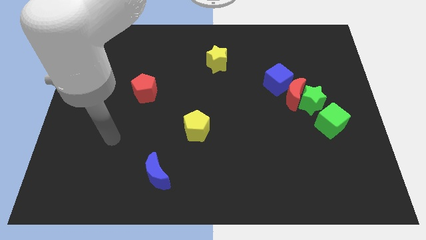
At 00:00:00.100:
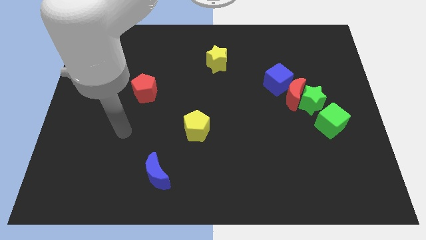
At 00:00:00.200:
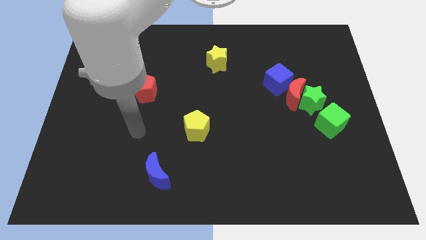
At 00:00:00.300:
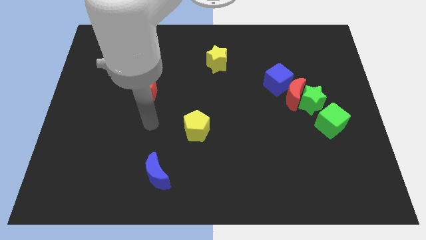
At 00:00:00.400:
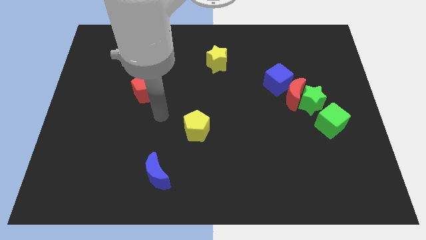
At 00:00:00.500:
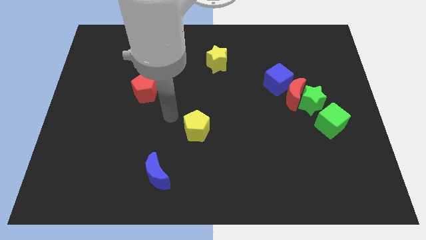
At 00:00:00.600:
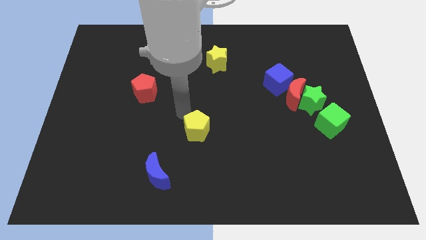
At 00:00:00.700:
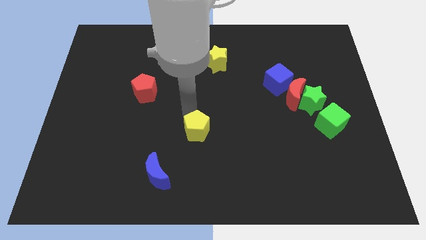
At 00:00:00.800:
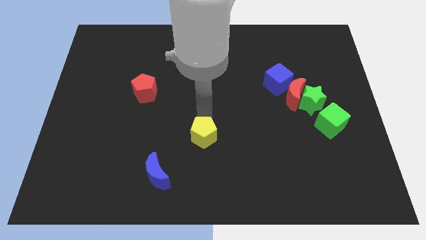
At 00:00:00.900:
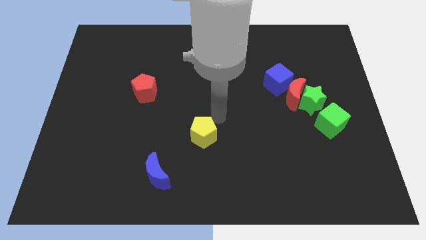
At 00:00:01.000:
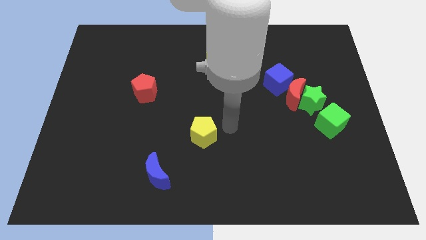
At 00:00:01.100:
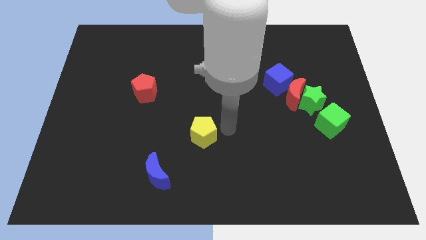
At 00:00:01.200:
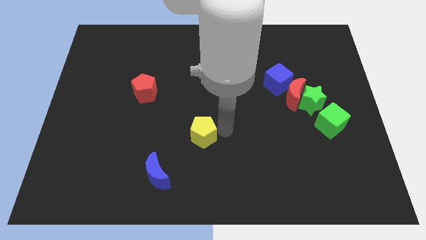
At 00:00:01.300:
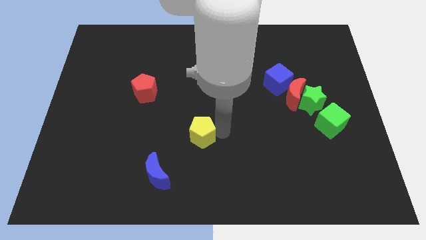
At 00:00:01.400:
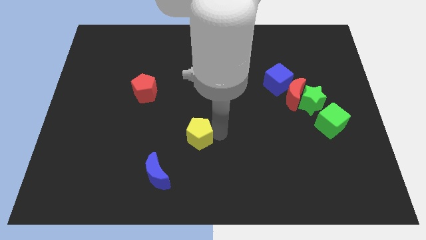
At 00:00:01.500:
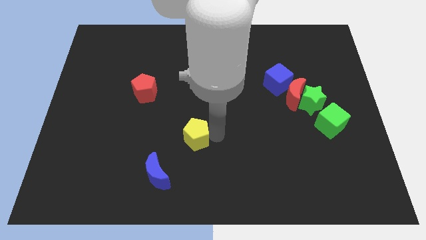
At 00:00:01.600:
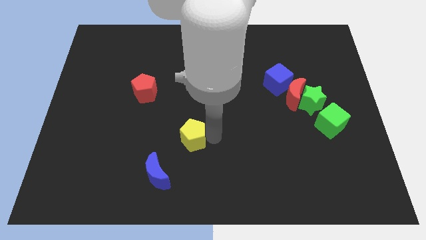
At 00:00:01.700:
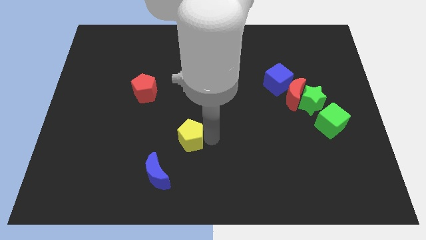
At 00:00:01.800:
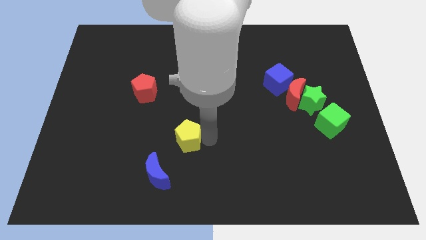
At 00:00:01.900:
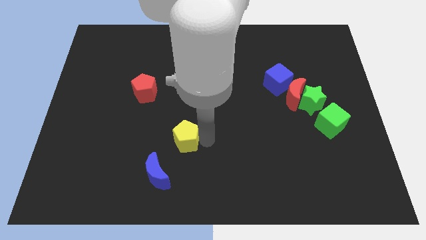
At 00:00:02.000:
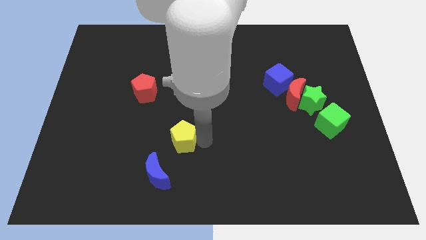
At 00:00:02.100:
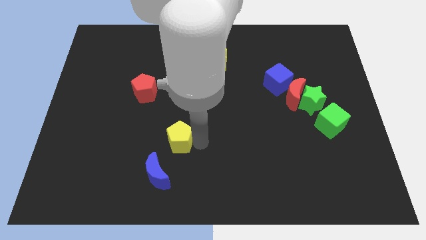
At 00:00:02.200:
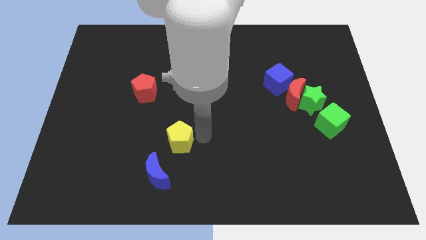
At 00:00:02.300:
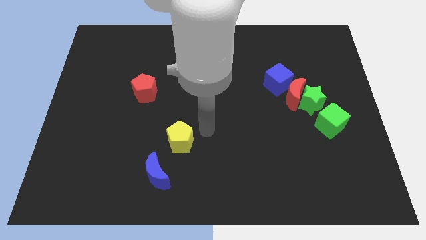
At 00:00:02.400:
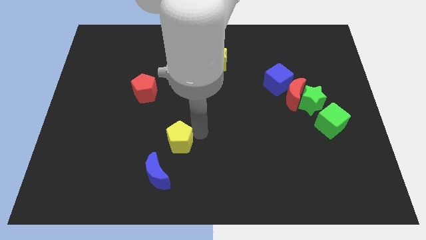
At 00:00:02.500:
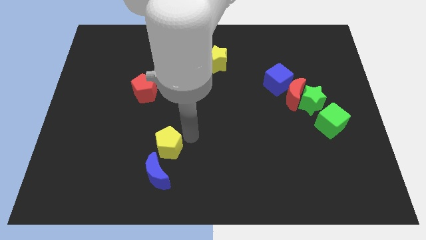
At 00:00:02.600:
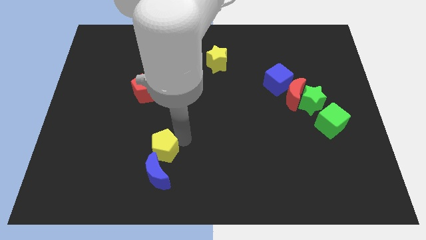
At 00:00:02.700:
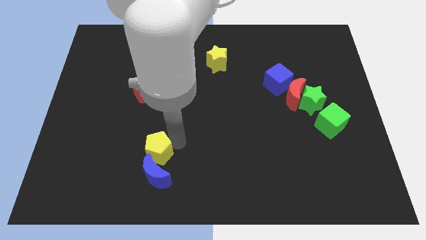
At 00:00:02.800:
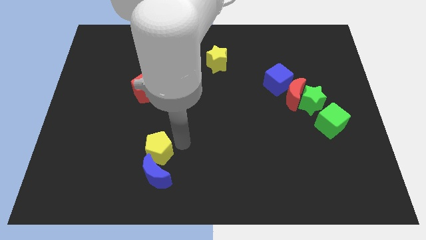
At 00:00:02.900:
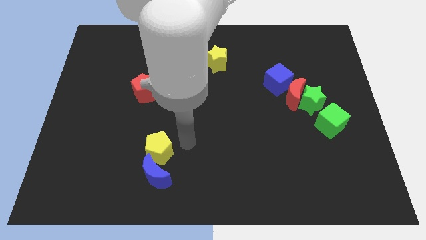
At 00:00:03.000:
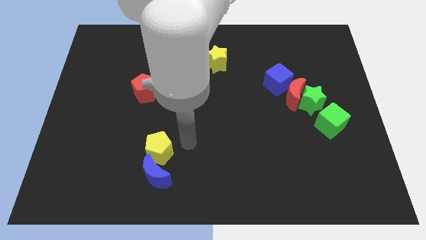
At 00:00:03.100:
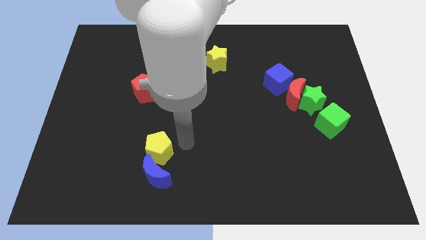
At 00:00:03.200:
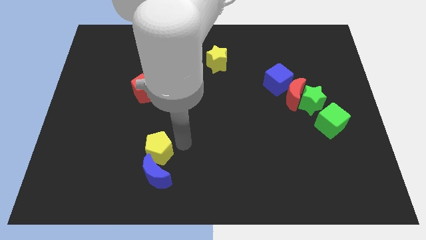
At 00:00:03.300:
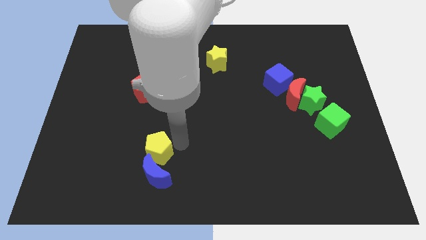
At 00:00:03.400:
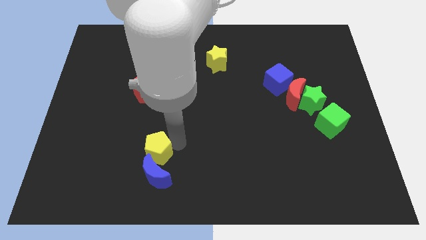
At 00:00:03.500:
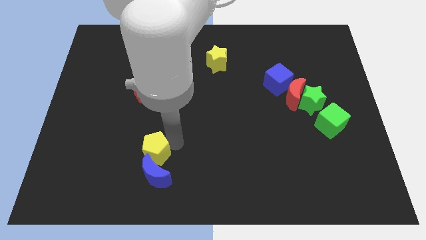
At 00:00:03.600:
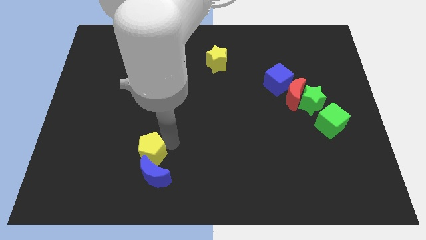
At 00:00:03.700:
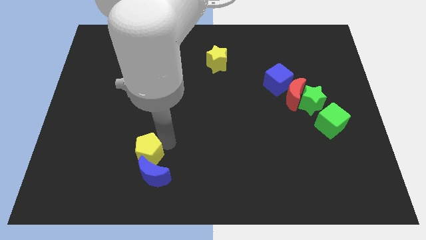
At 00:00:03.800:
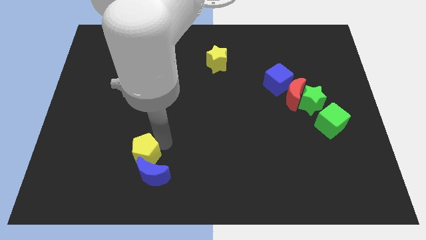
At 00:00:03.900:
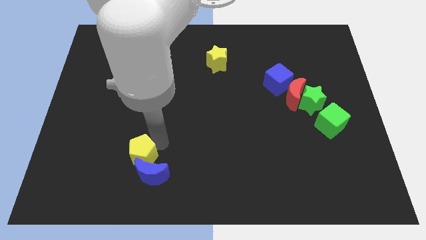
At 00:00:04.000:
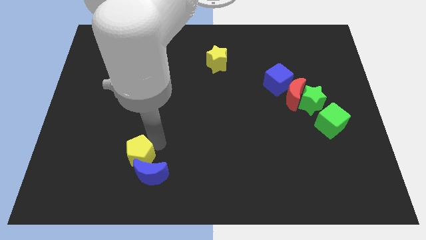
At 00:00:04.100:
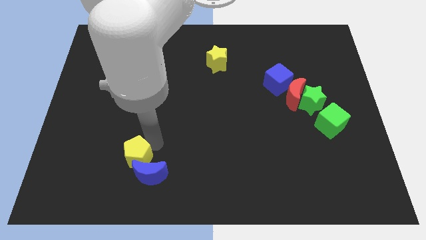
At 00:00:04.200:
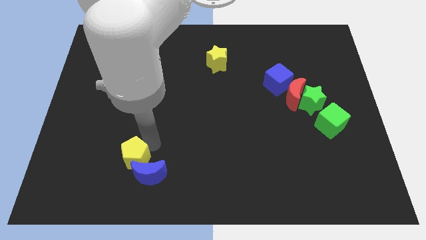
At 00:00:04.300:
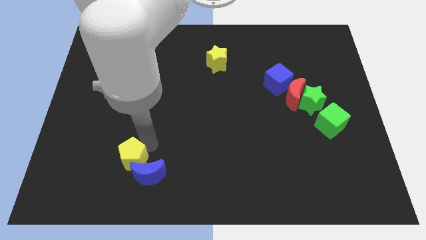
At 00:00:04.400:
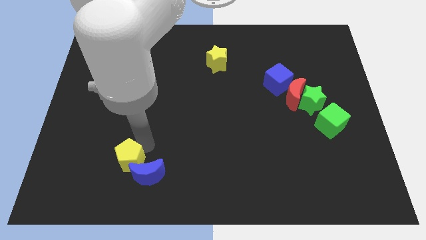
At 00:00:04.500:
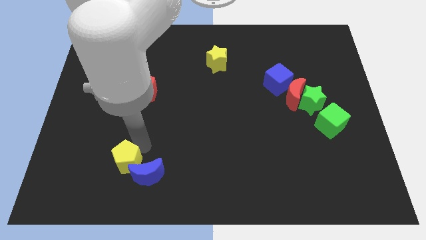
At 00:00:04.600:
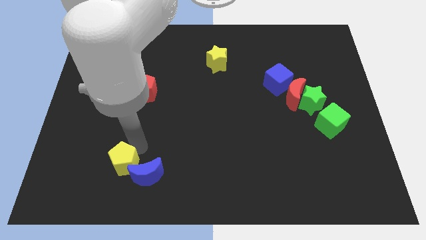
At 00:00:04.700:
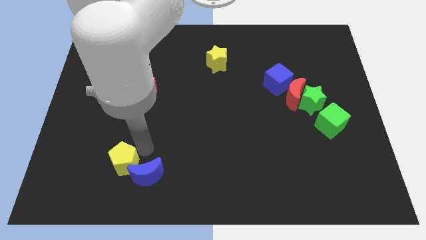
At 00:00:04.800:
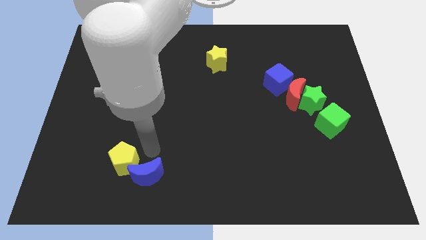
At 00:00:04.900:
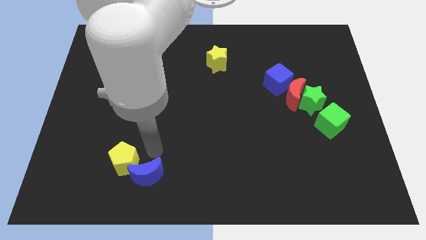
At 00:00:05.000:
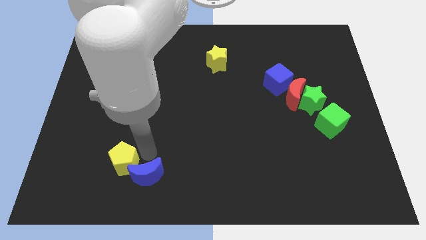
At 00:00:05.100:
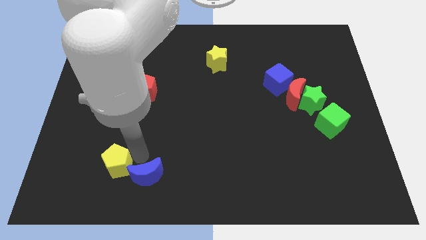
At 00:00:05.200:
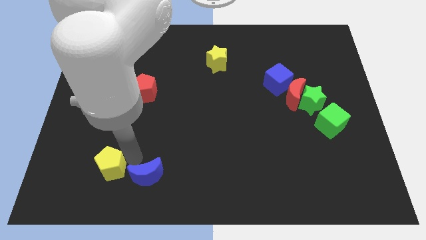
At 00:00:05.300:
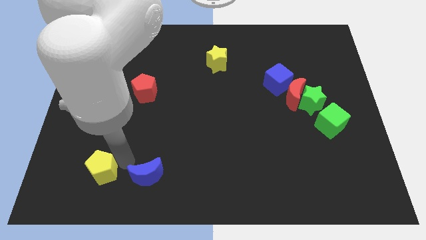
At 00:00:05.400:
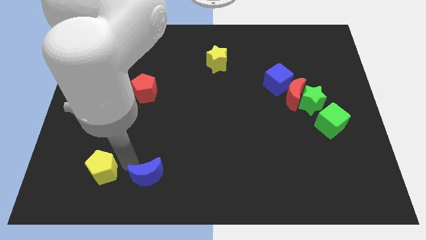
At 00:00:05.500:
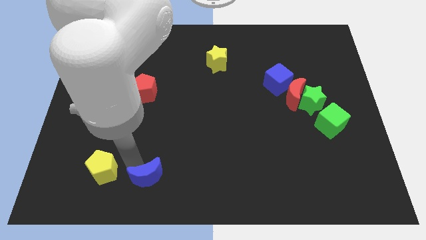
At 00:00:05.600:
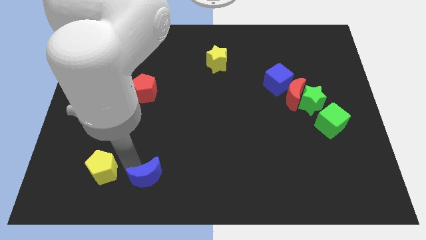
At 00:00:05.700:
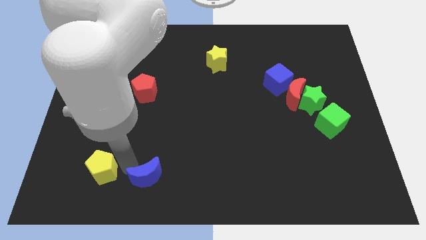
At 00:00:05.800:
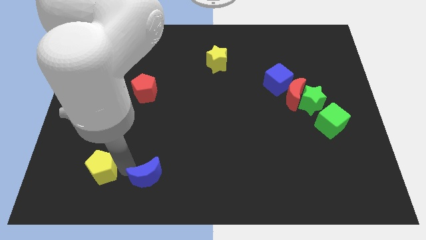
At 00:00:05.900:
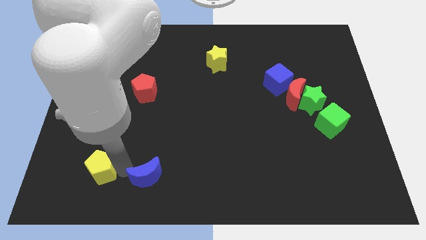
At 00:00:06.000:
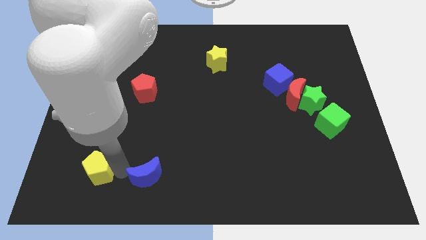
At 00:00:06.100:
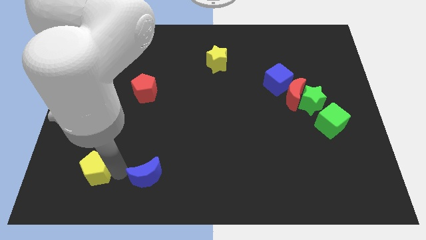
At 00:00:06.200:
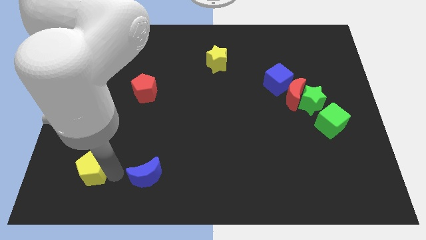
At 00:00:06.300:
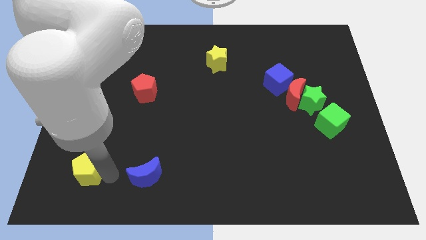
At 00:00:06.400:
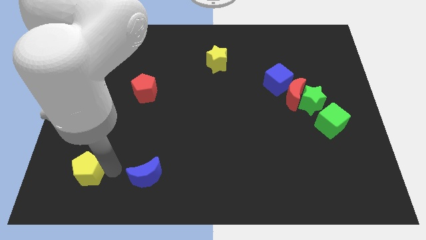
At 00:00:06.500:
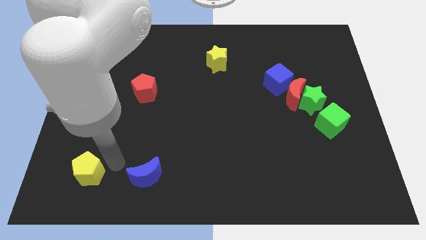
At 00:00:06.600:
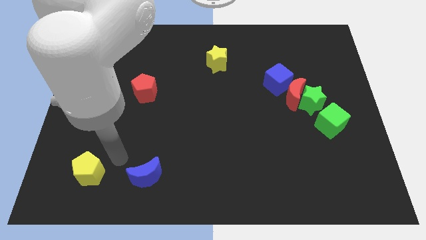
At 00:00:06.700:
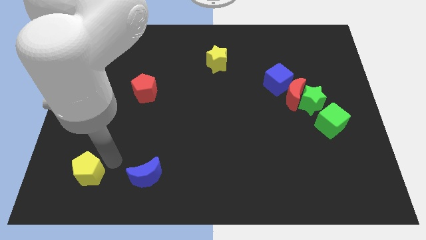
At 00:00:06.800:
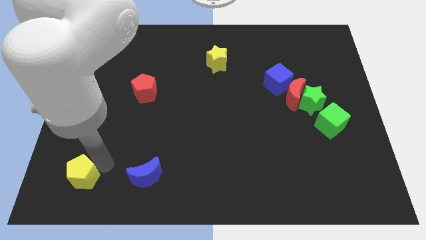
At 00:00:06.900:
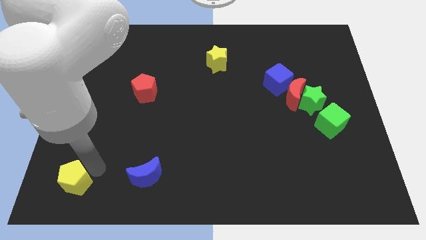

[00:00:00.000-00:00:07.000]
put the yellow pentagon to the lower left corner
